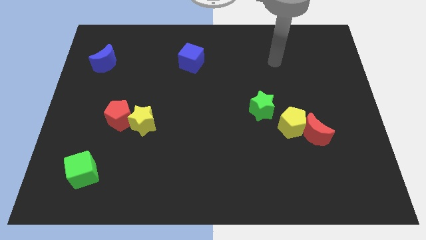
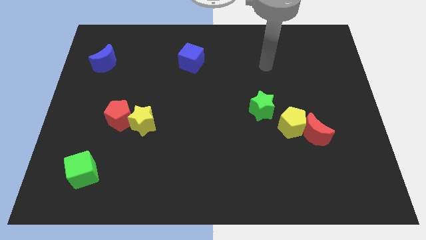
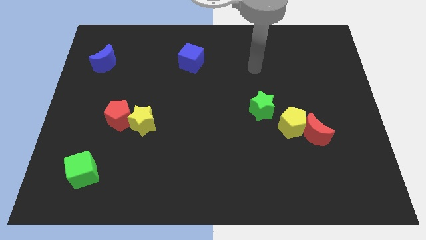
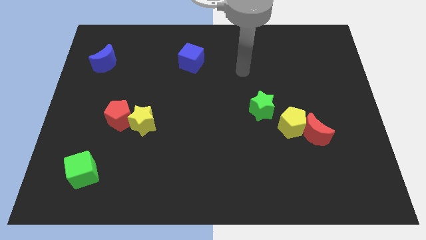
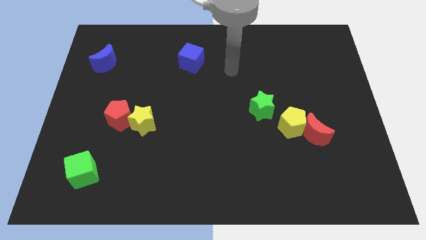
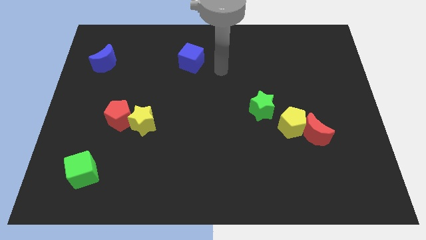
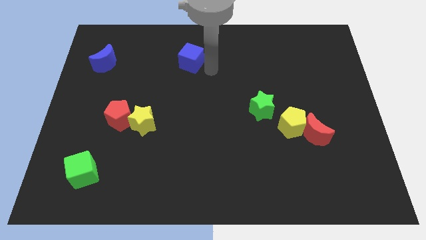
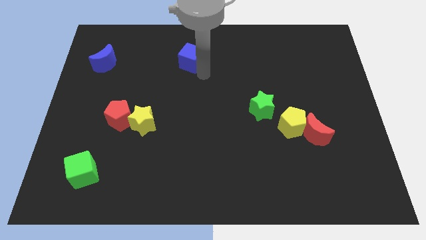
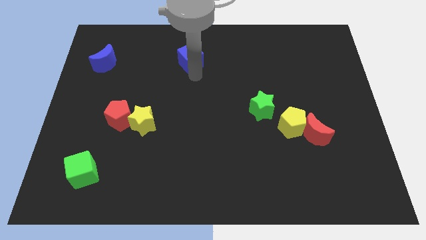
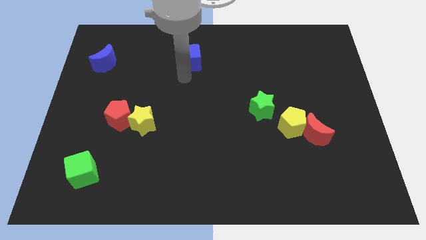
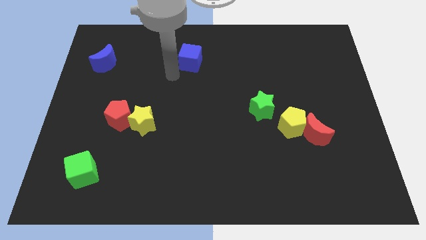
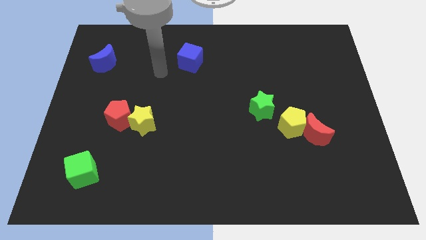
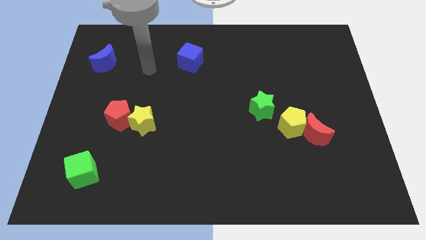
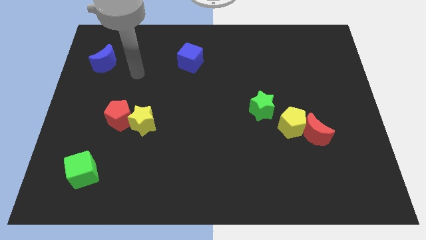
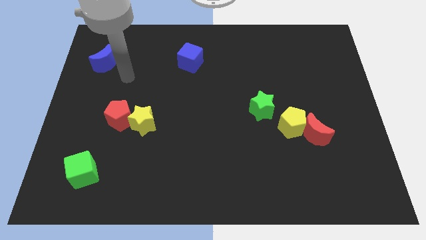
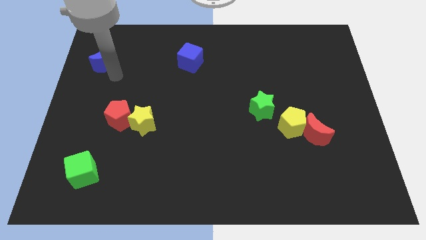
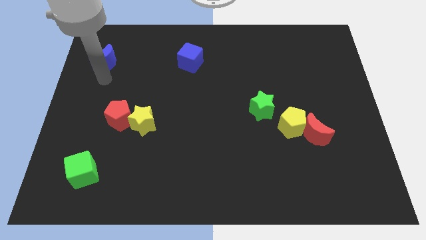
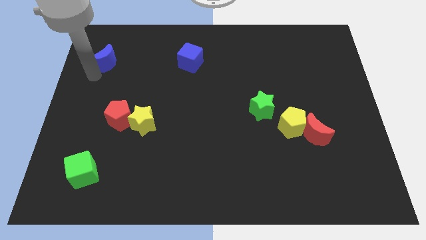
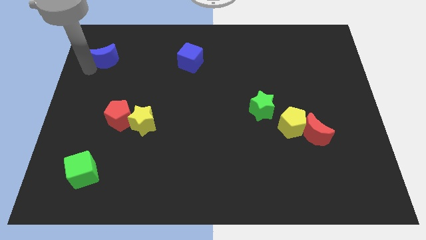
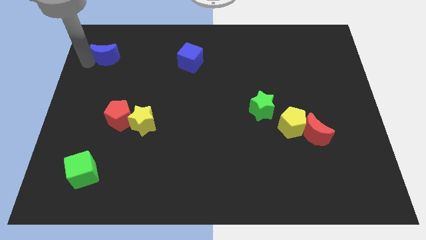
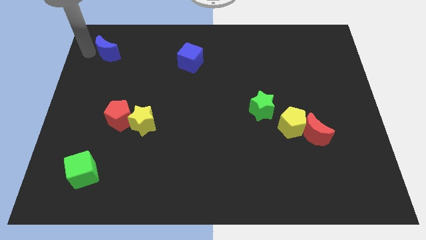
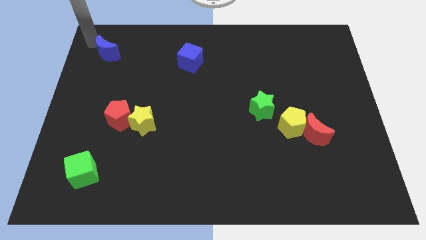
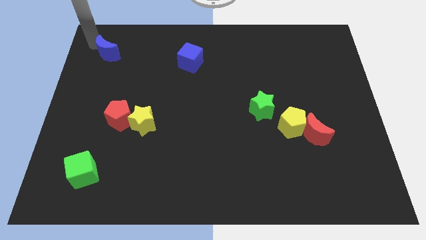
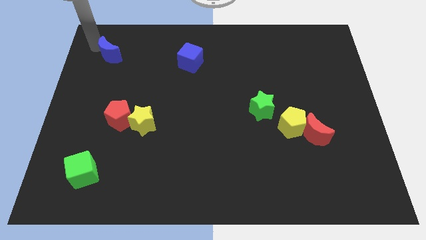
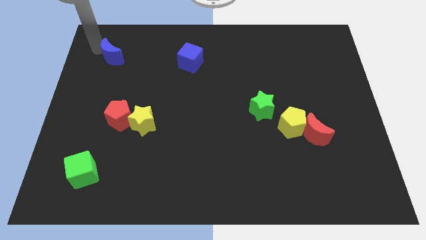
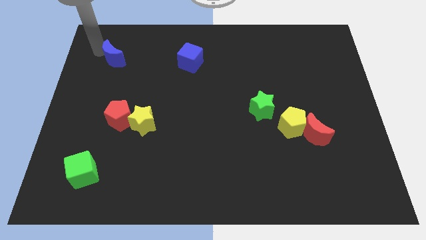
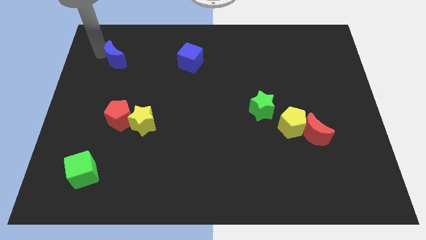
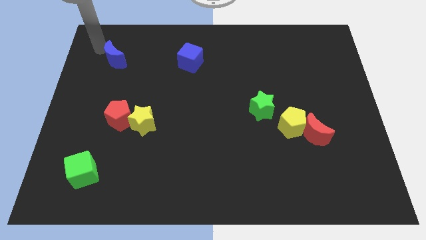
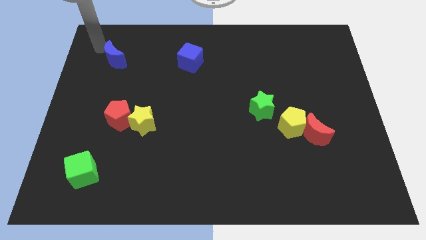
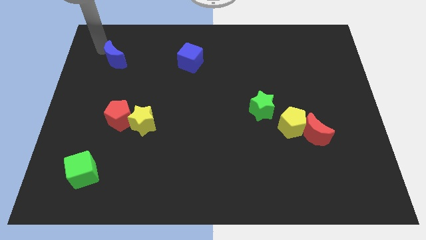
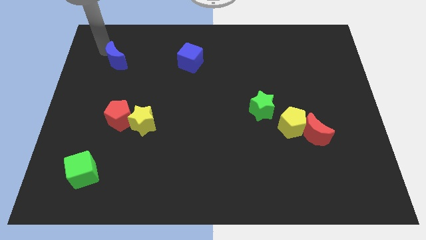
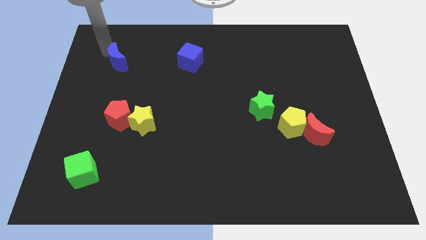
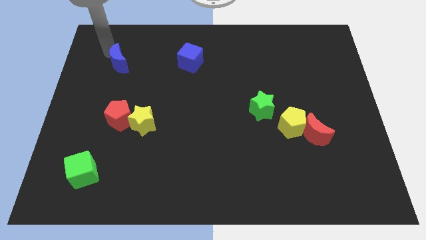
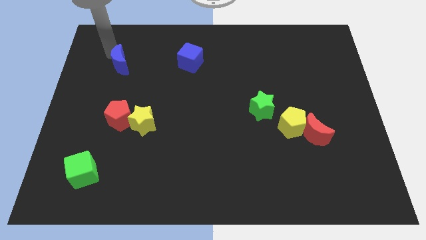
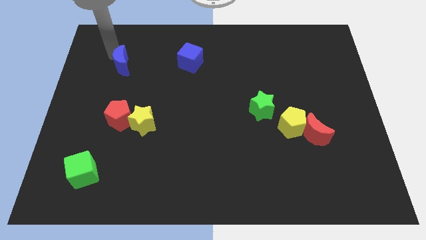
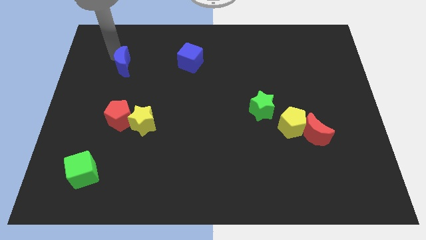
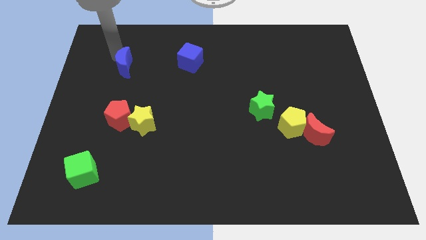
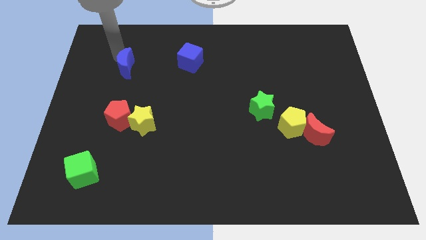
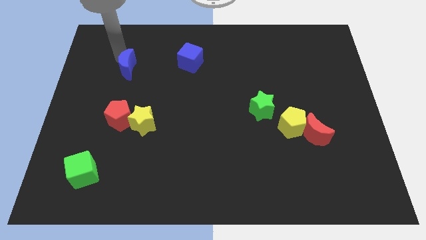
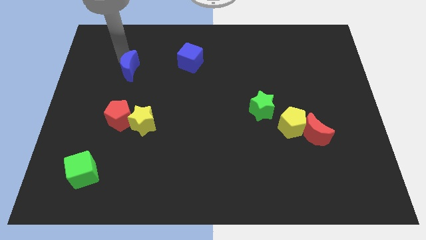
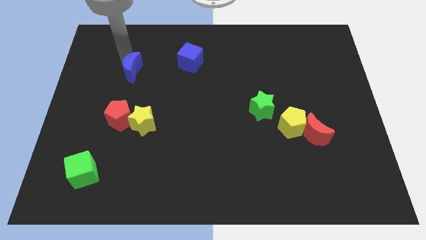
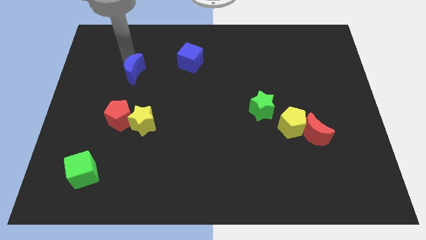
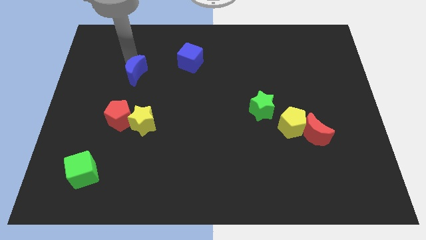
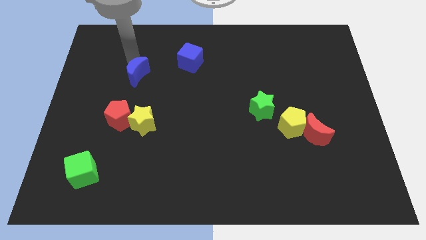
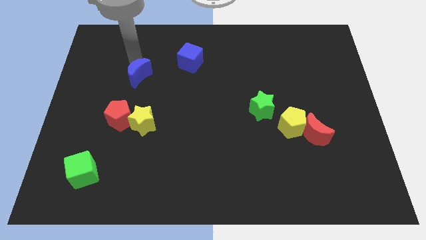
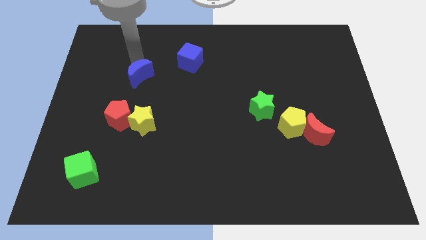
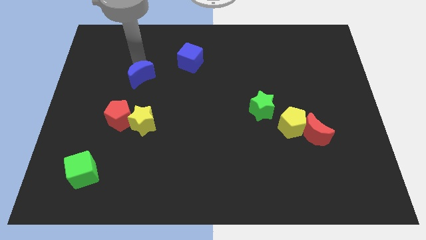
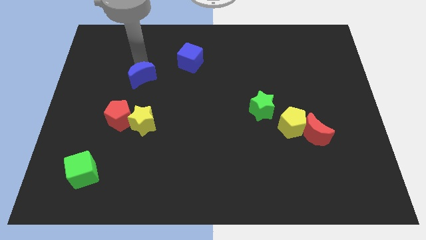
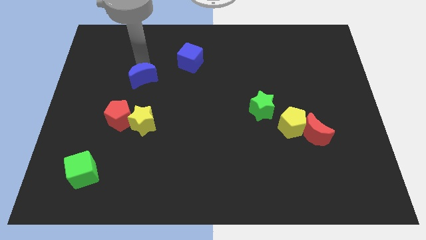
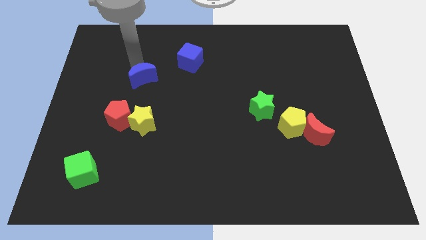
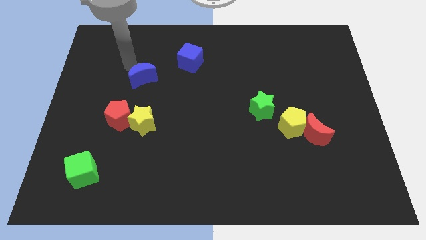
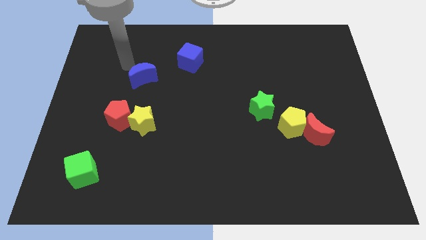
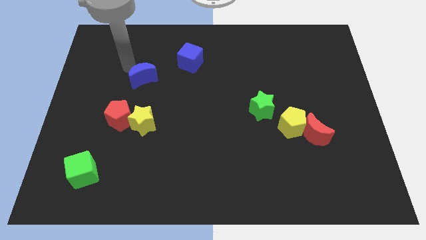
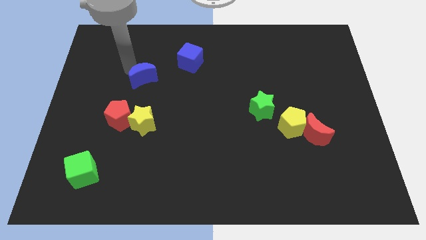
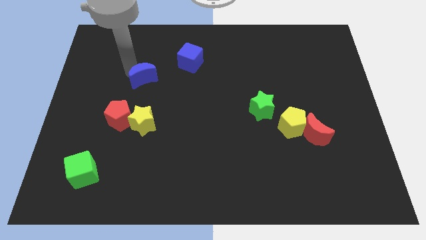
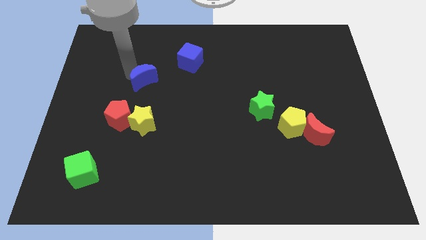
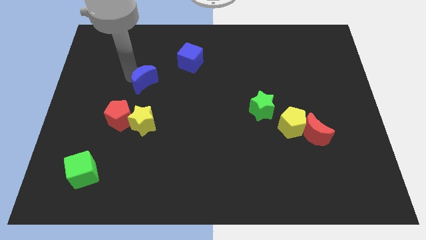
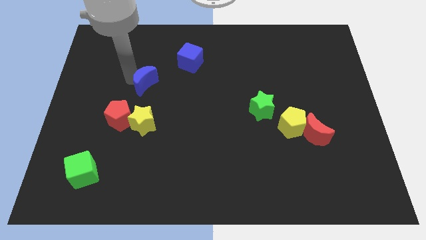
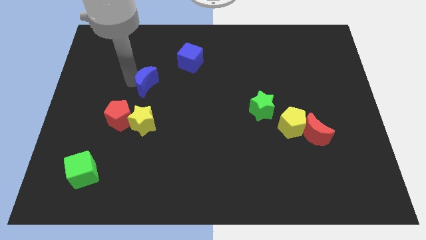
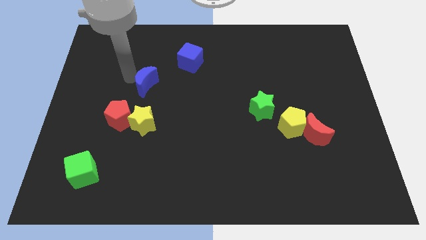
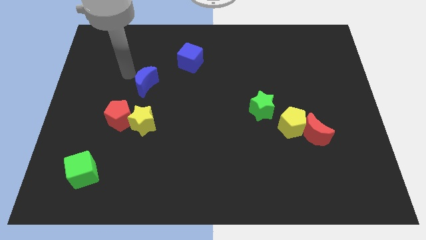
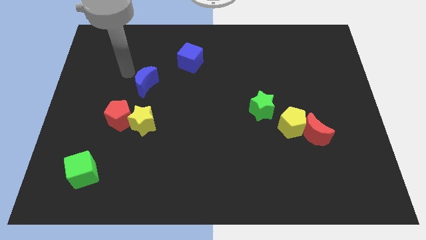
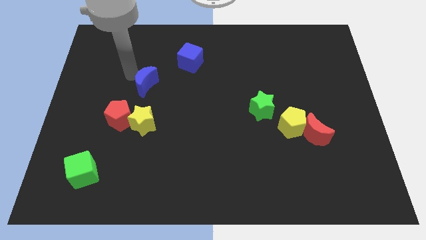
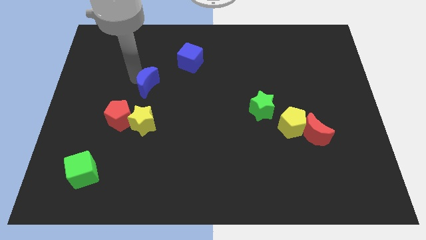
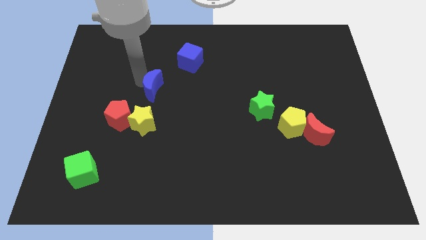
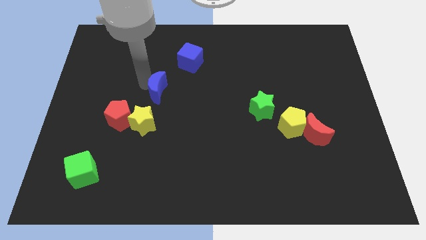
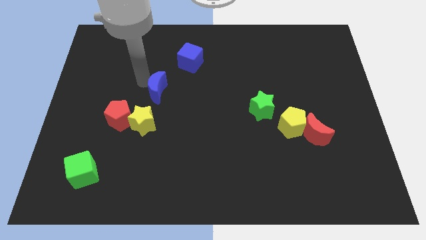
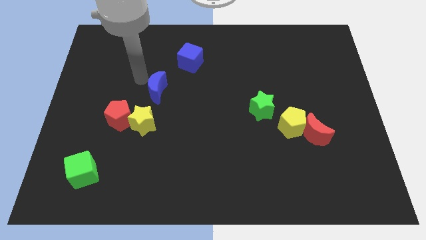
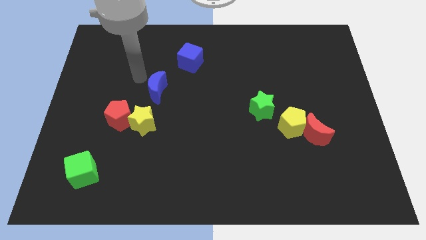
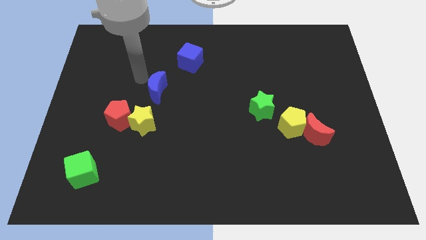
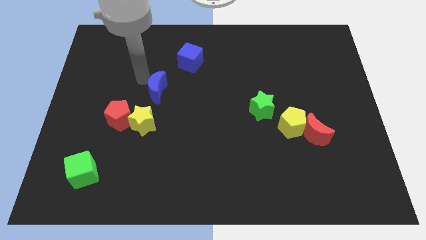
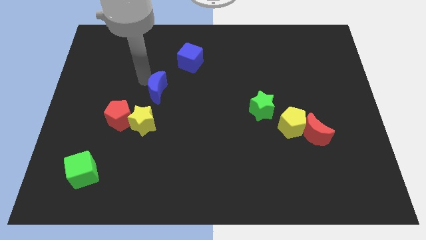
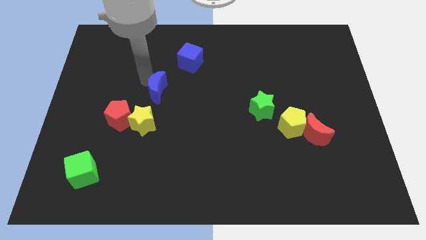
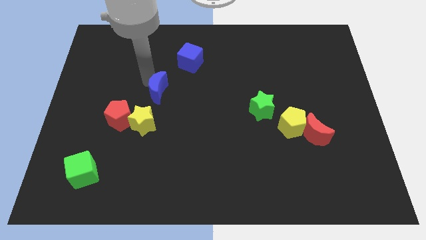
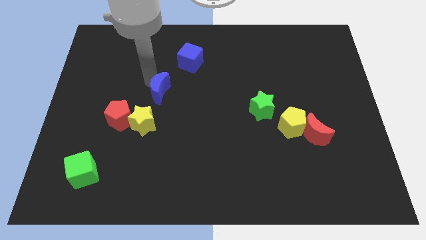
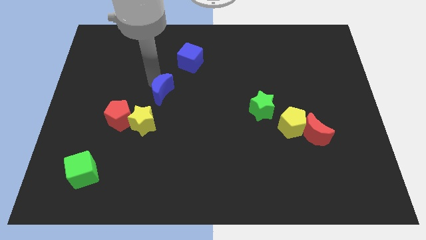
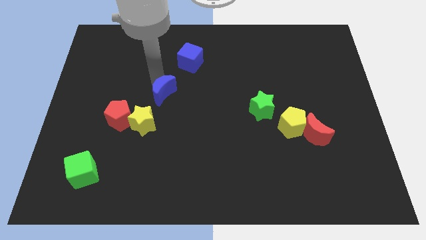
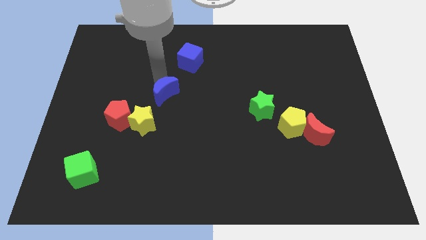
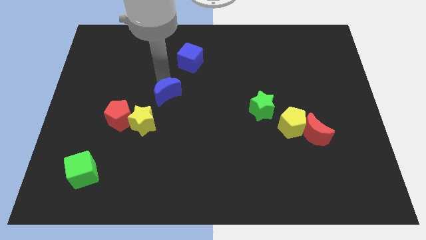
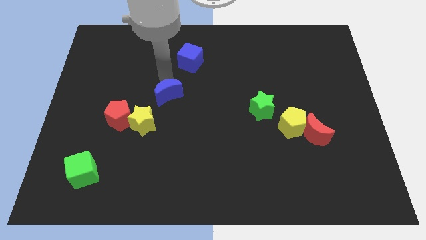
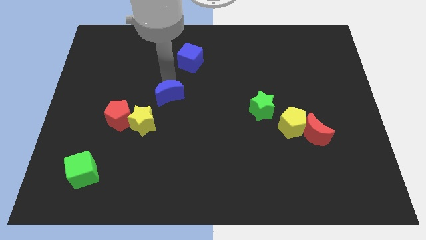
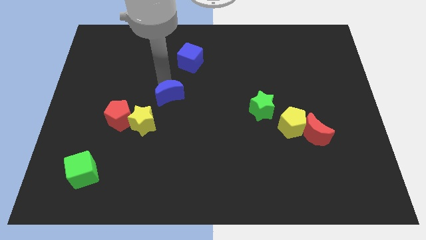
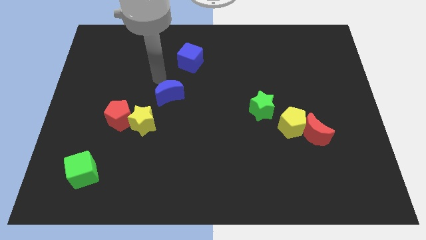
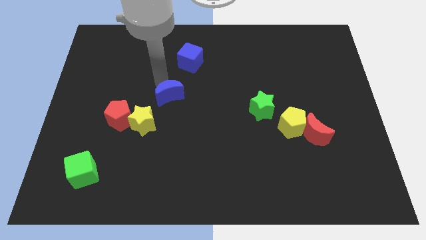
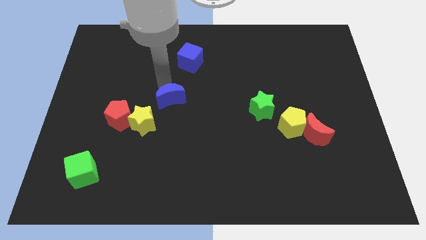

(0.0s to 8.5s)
slide the blue moon downwards and then right
